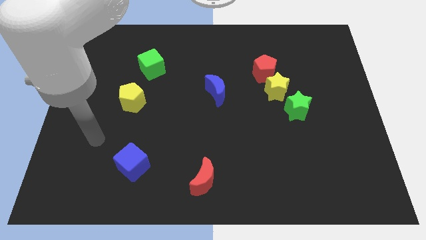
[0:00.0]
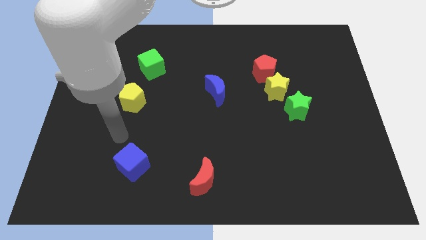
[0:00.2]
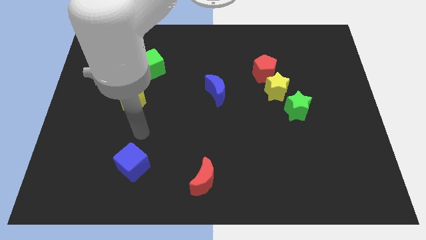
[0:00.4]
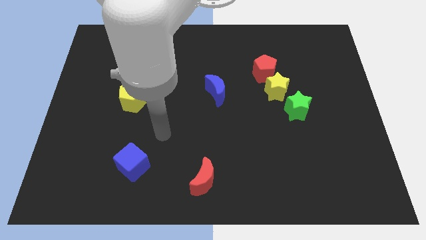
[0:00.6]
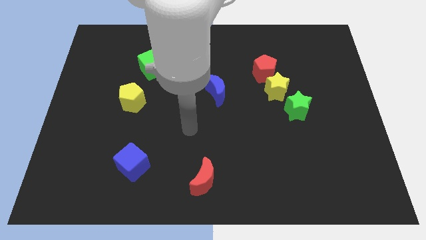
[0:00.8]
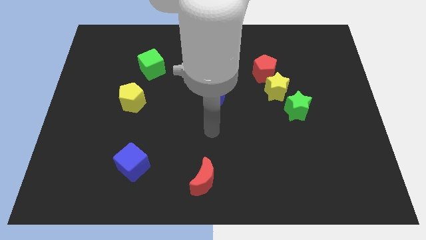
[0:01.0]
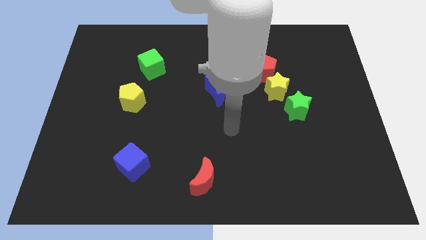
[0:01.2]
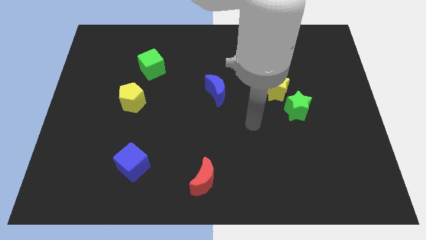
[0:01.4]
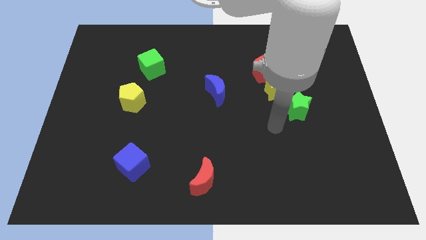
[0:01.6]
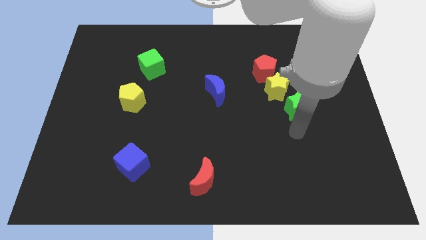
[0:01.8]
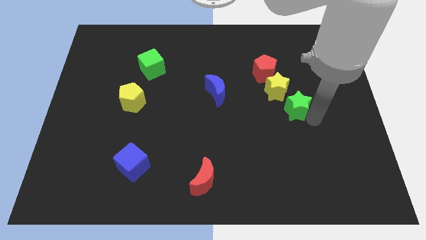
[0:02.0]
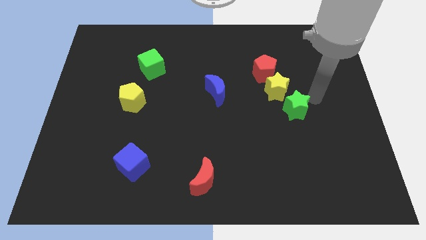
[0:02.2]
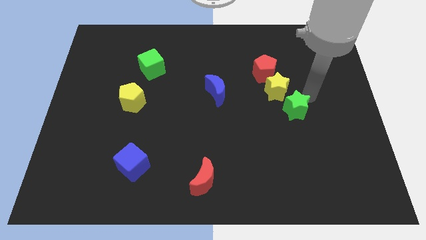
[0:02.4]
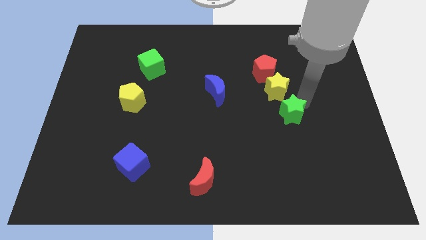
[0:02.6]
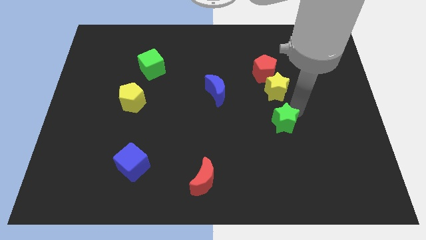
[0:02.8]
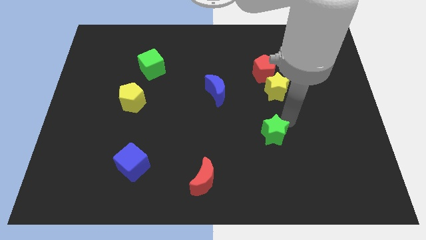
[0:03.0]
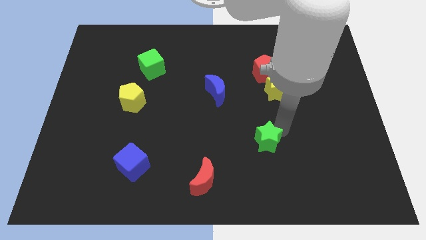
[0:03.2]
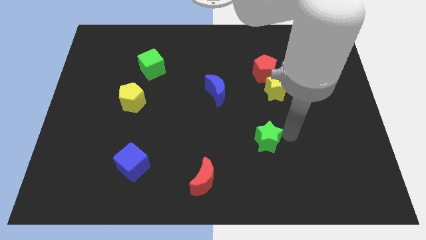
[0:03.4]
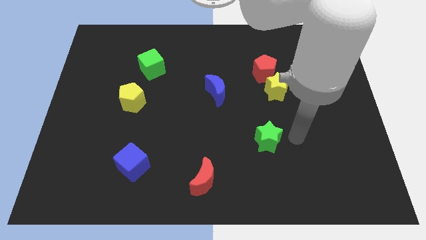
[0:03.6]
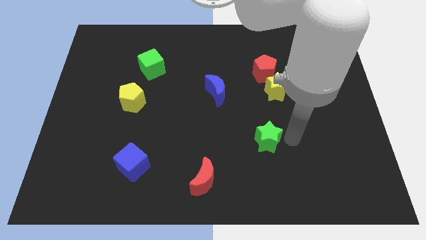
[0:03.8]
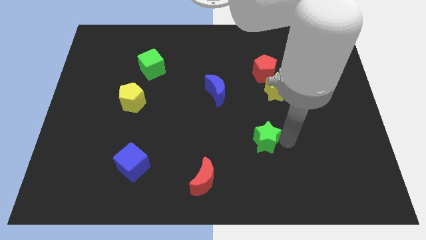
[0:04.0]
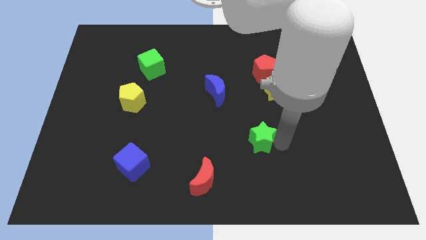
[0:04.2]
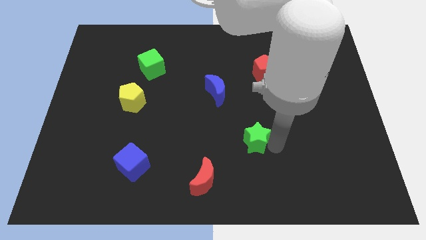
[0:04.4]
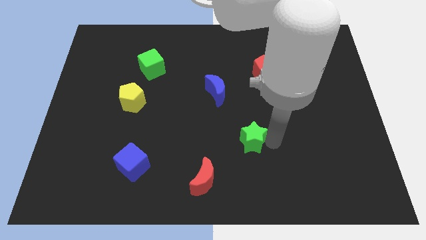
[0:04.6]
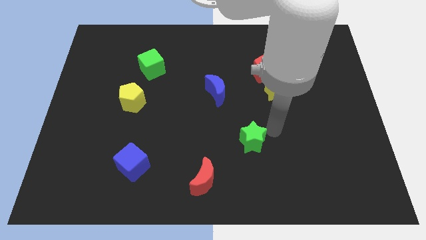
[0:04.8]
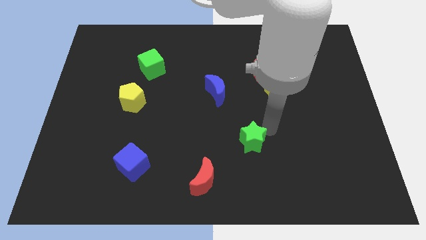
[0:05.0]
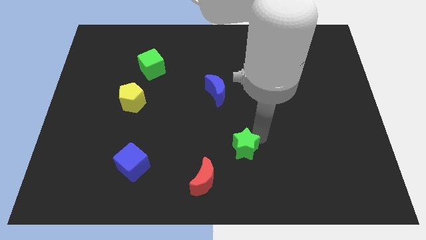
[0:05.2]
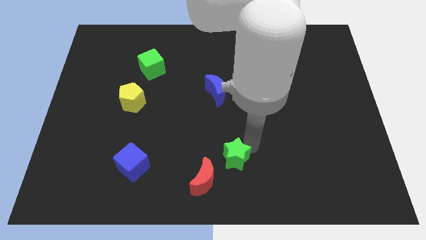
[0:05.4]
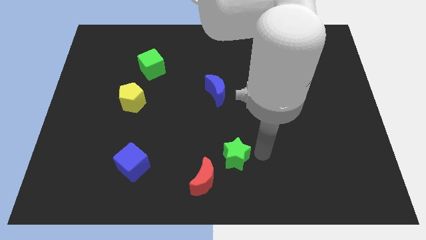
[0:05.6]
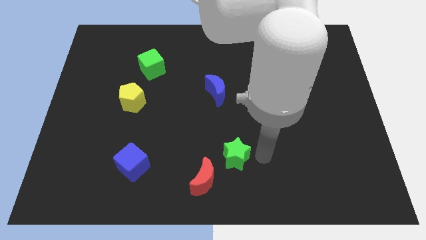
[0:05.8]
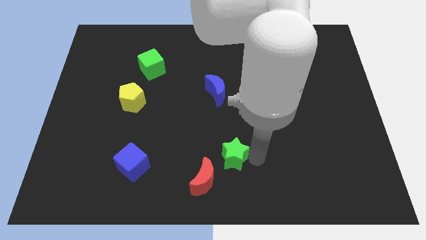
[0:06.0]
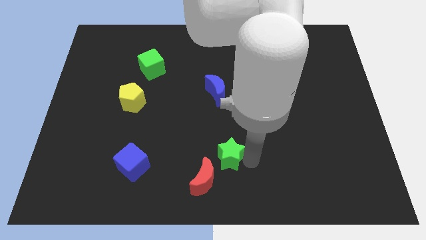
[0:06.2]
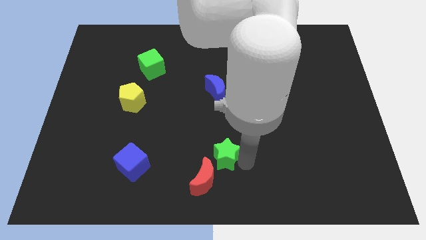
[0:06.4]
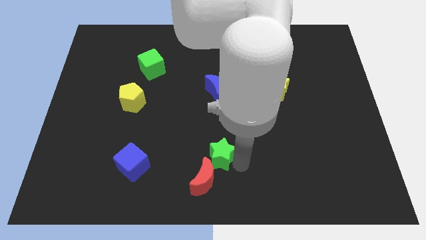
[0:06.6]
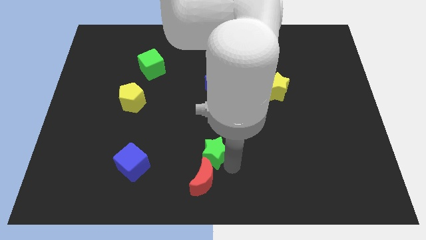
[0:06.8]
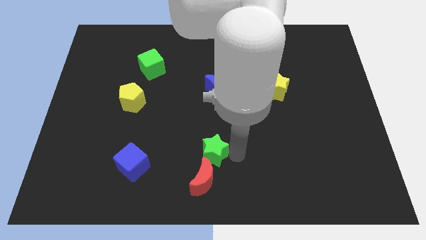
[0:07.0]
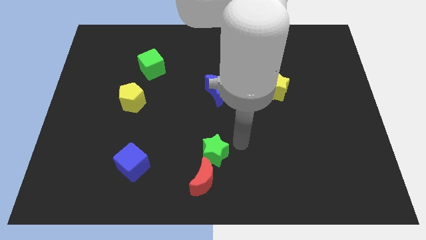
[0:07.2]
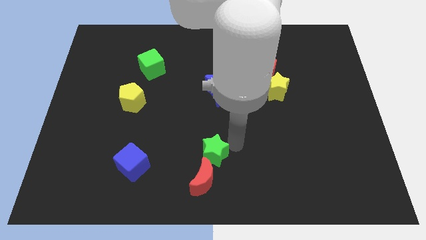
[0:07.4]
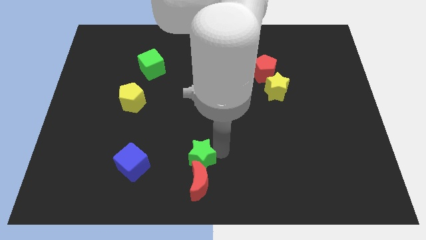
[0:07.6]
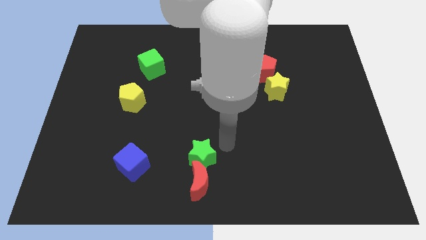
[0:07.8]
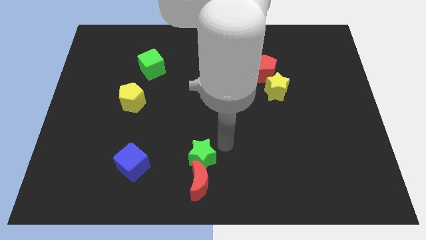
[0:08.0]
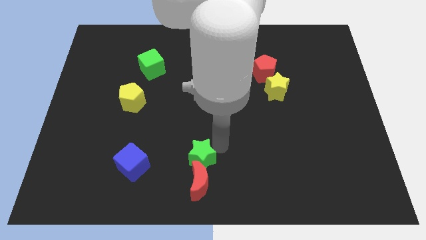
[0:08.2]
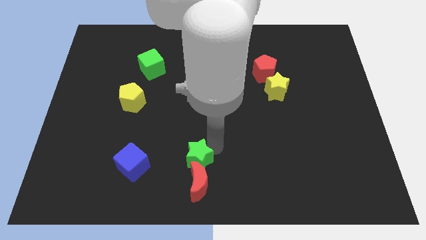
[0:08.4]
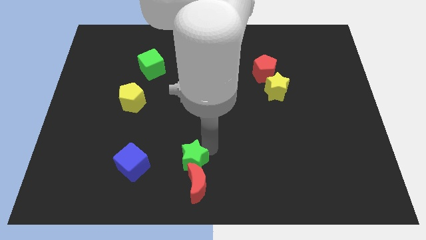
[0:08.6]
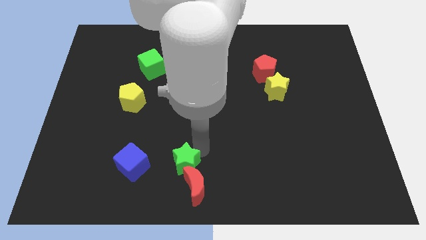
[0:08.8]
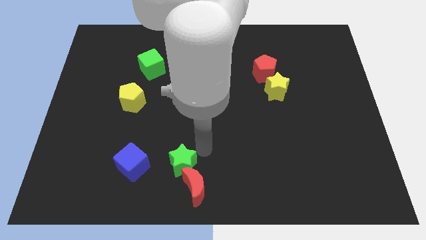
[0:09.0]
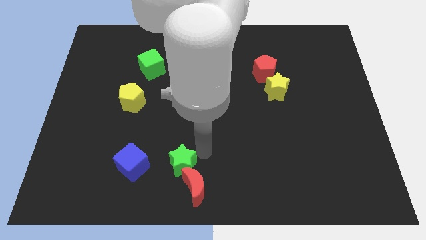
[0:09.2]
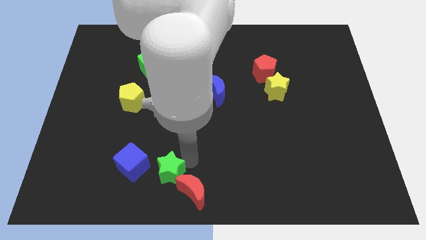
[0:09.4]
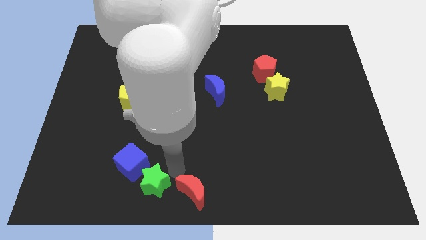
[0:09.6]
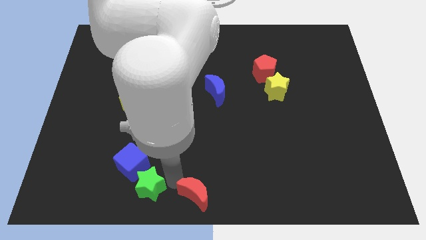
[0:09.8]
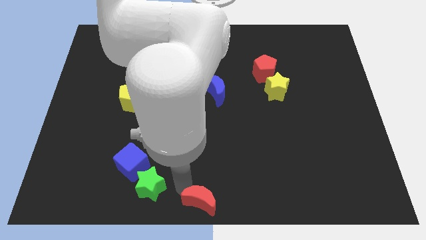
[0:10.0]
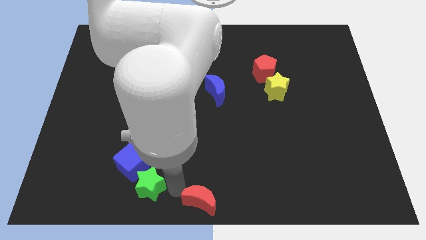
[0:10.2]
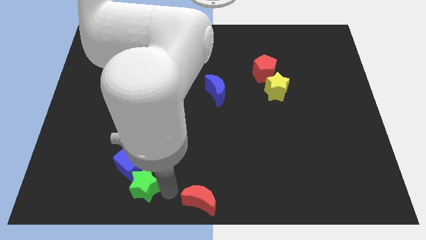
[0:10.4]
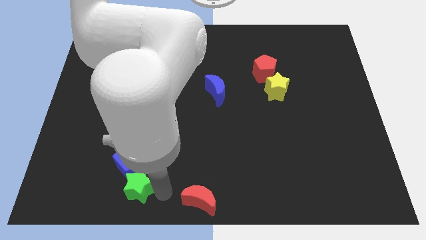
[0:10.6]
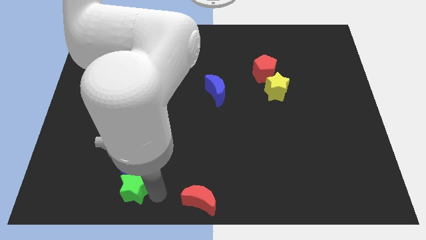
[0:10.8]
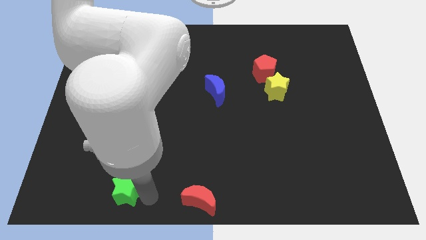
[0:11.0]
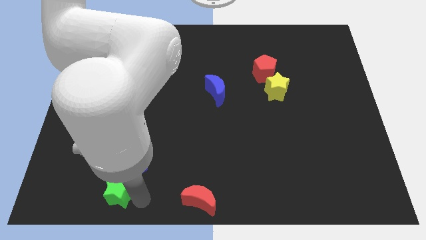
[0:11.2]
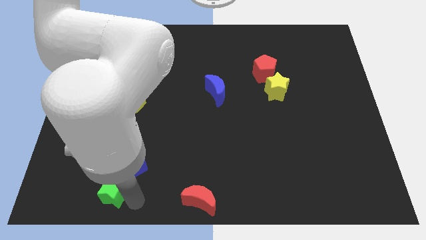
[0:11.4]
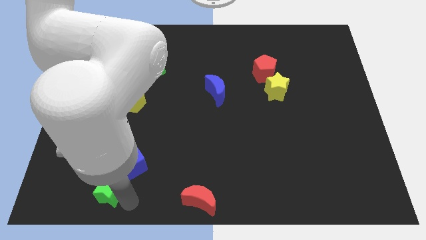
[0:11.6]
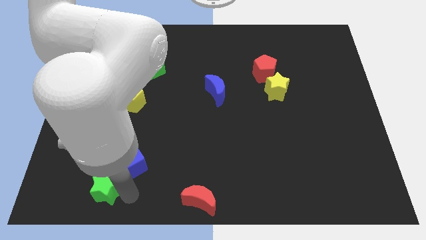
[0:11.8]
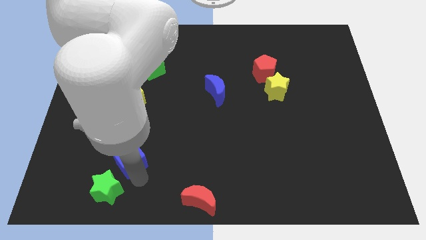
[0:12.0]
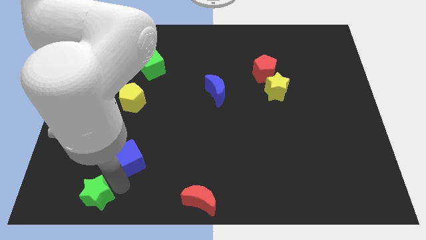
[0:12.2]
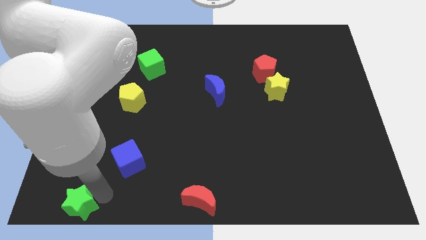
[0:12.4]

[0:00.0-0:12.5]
slide the green star to the bottom left of the board
